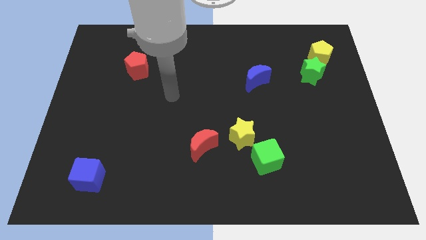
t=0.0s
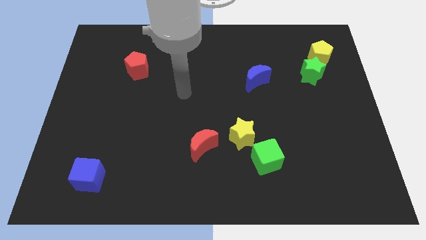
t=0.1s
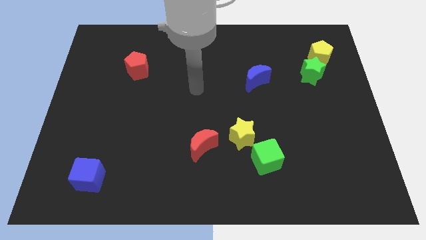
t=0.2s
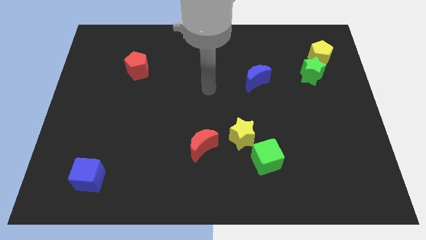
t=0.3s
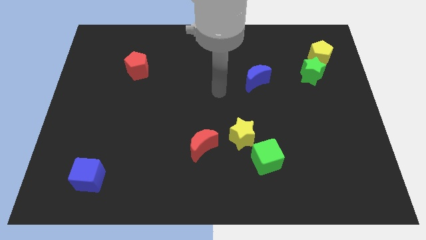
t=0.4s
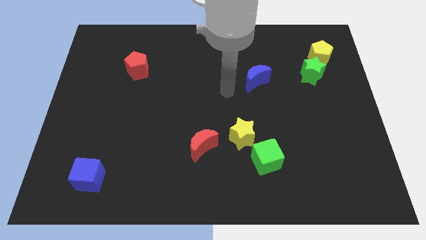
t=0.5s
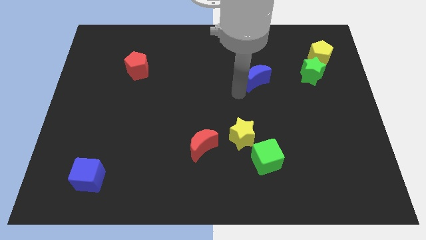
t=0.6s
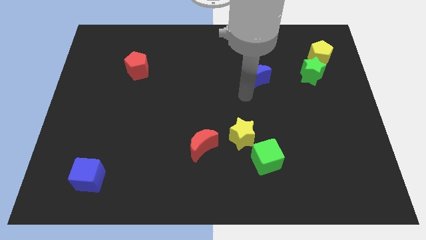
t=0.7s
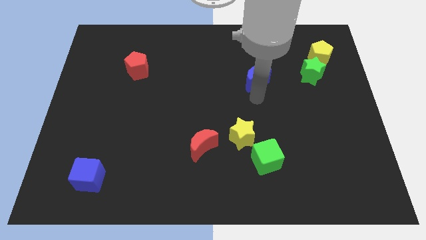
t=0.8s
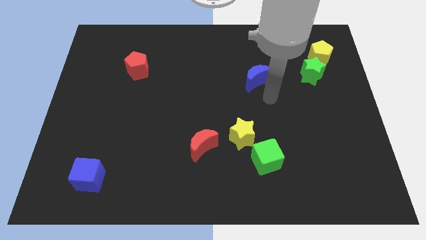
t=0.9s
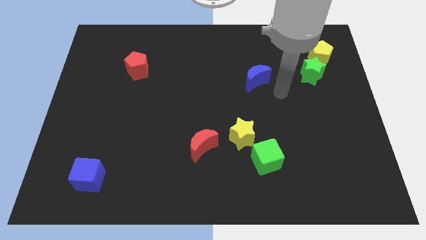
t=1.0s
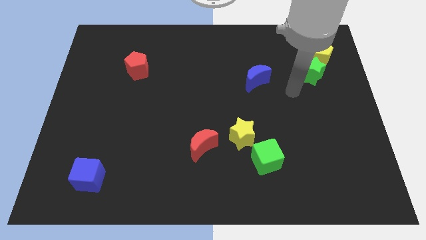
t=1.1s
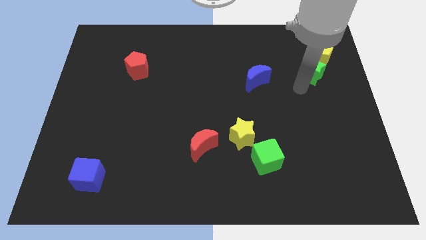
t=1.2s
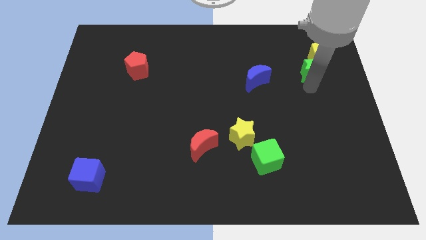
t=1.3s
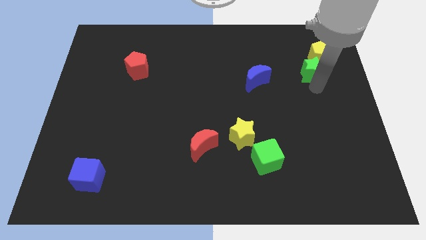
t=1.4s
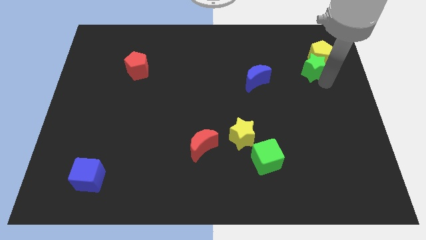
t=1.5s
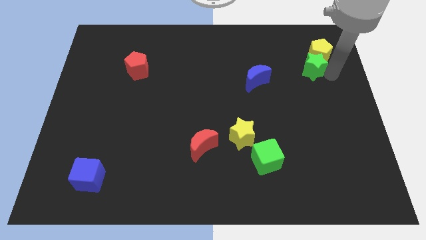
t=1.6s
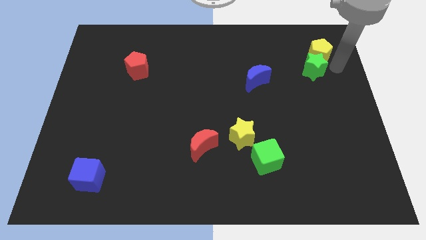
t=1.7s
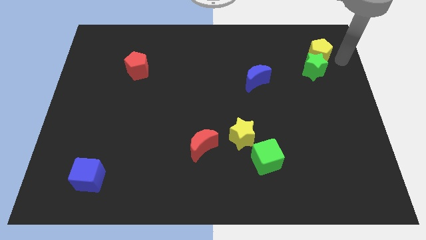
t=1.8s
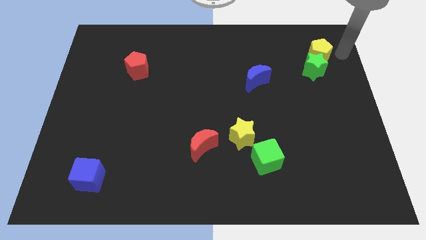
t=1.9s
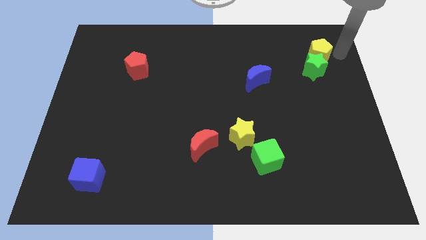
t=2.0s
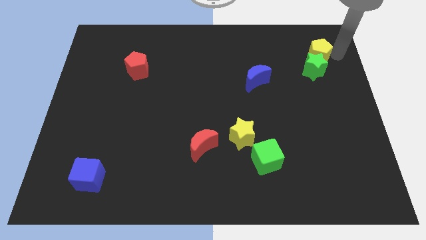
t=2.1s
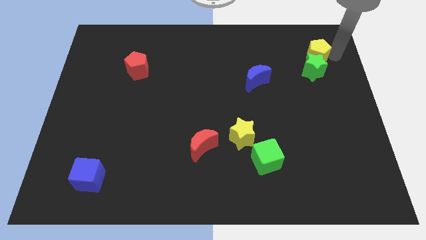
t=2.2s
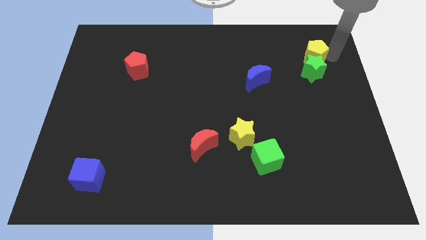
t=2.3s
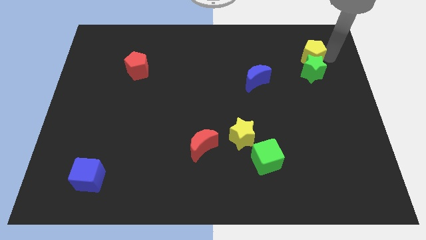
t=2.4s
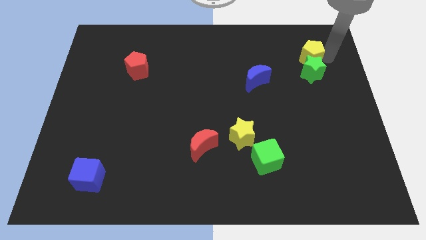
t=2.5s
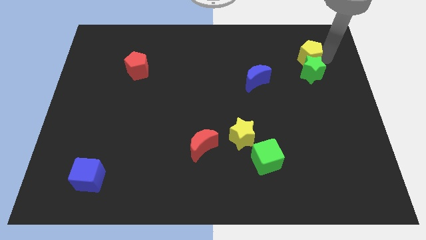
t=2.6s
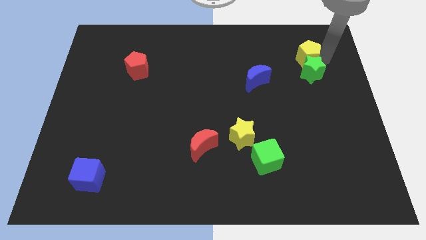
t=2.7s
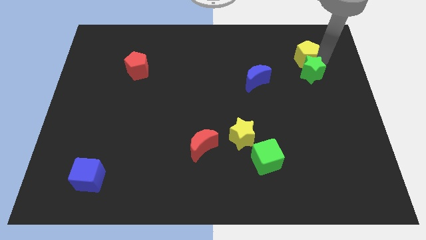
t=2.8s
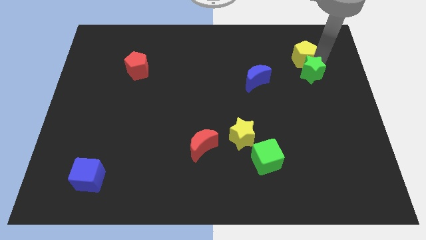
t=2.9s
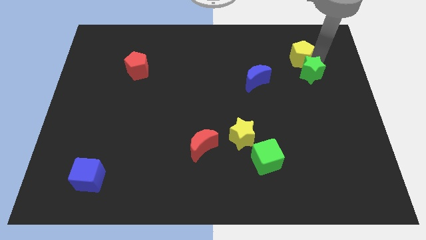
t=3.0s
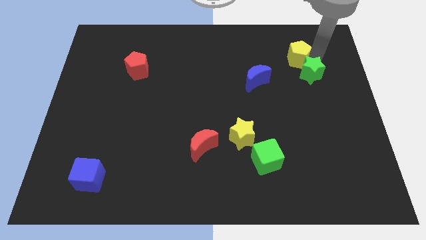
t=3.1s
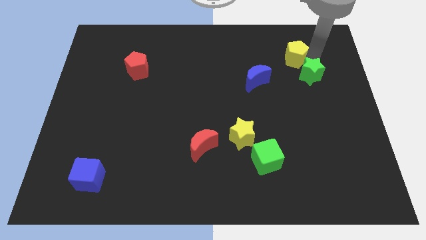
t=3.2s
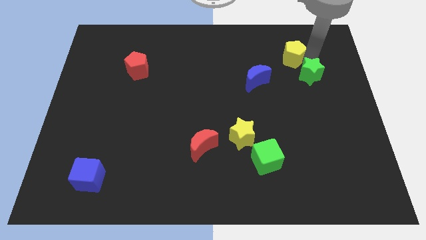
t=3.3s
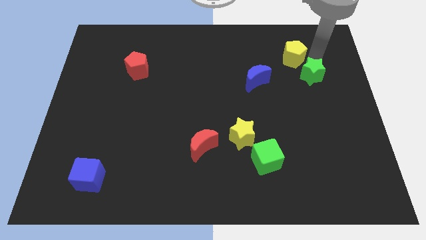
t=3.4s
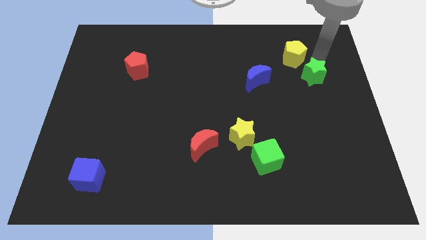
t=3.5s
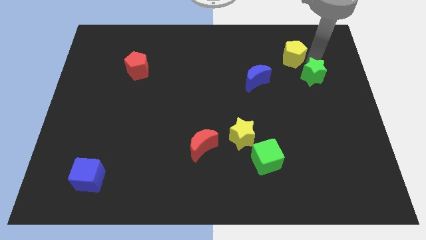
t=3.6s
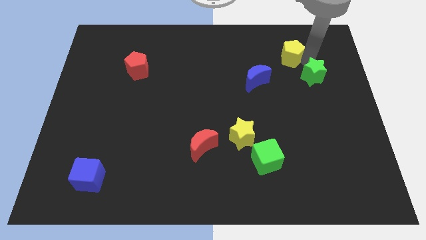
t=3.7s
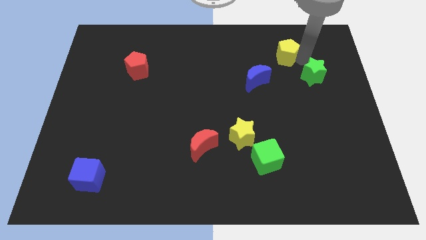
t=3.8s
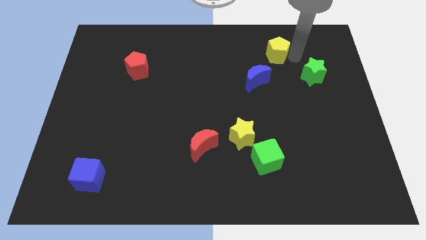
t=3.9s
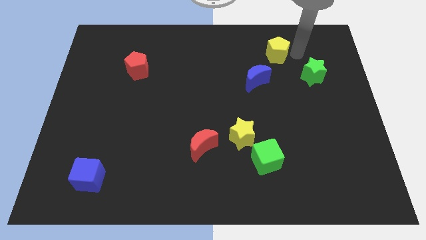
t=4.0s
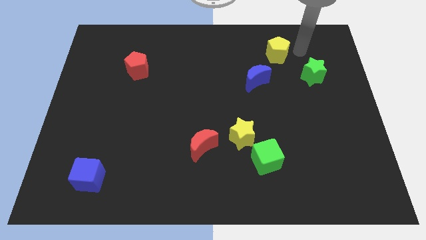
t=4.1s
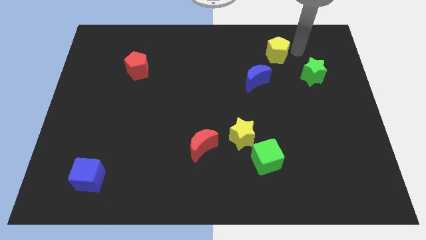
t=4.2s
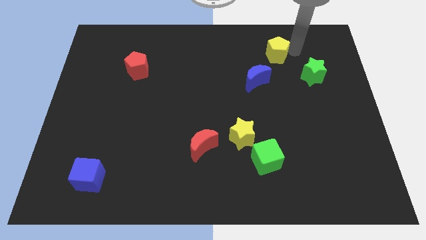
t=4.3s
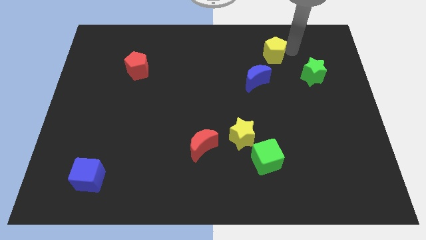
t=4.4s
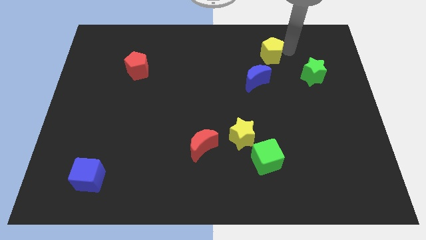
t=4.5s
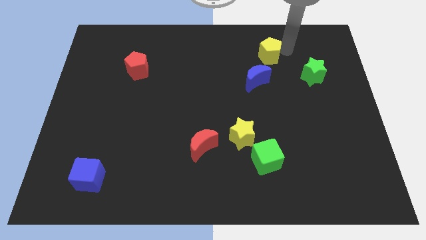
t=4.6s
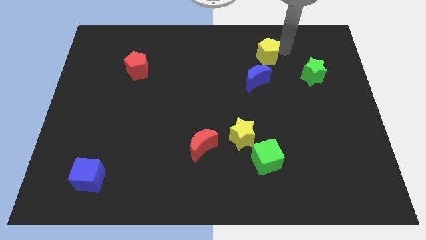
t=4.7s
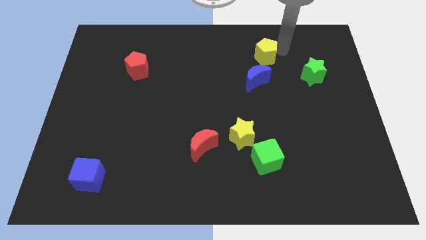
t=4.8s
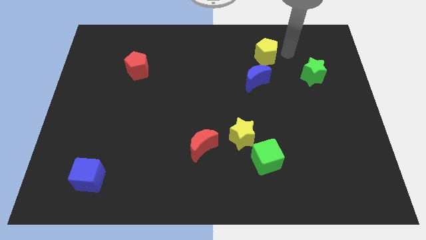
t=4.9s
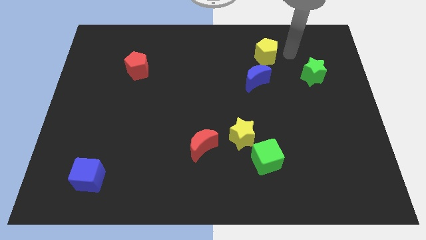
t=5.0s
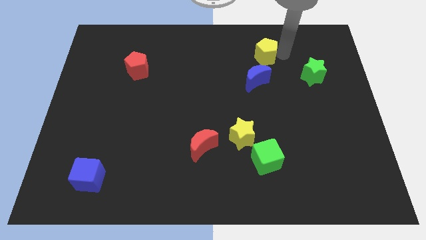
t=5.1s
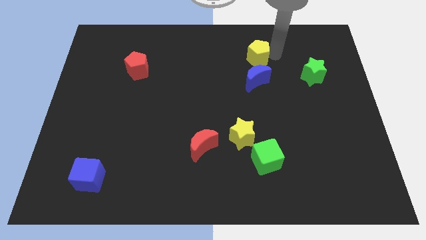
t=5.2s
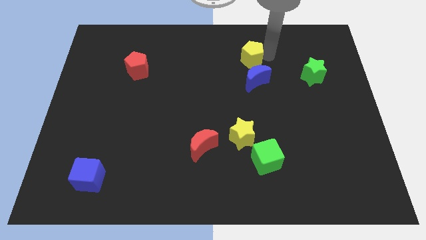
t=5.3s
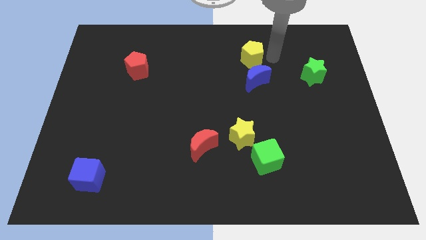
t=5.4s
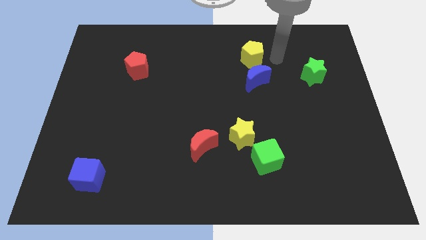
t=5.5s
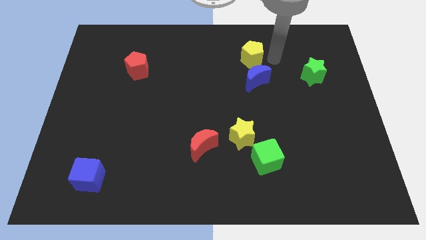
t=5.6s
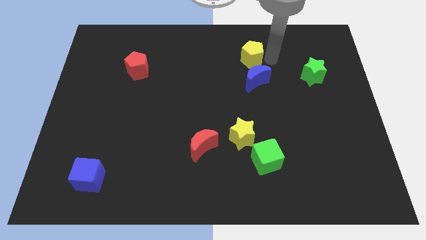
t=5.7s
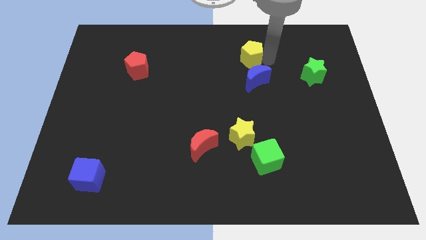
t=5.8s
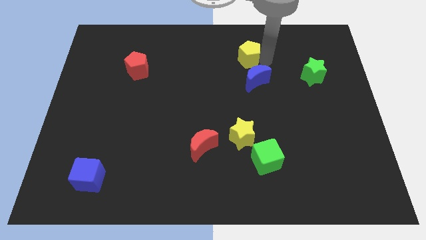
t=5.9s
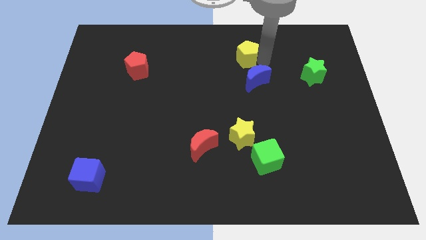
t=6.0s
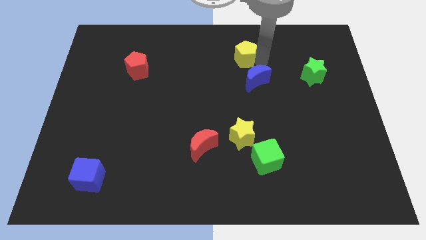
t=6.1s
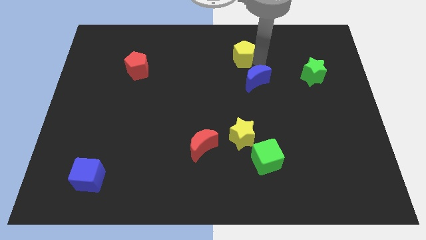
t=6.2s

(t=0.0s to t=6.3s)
move the yellow pentagon to the left

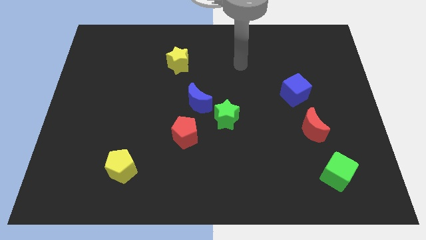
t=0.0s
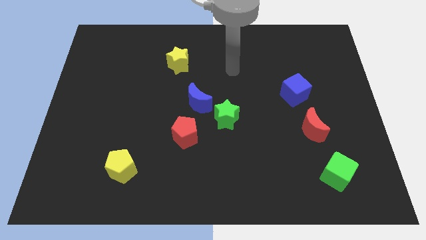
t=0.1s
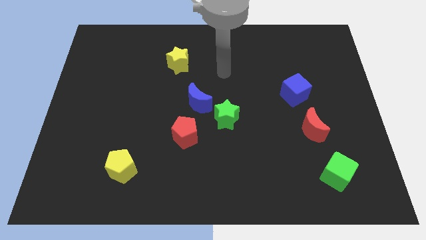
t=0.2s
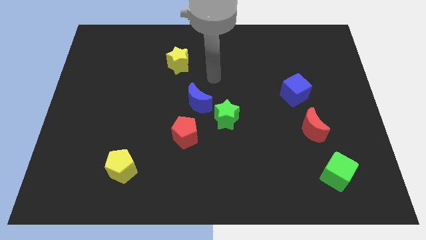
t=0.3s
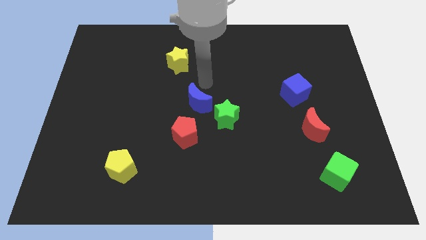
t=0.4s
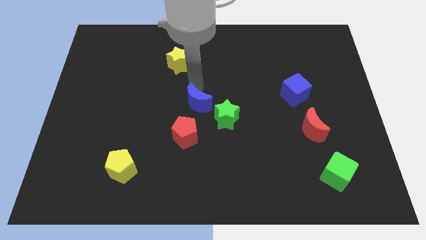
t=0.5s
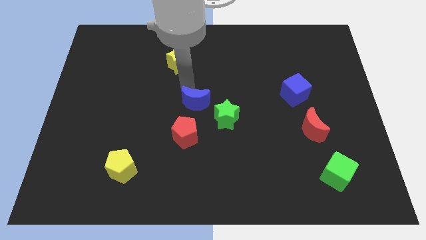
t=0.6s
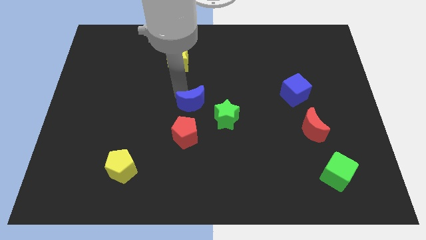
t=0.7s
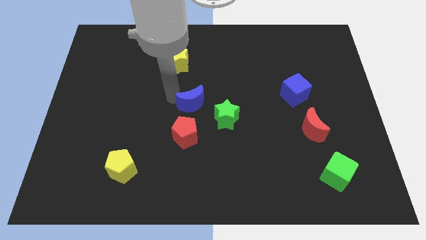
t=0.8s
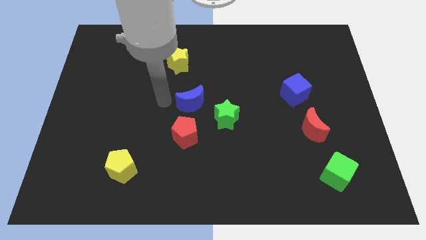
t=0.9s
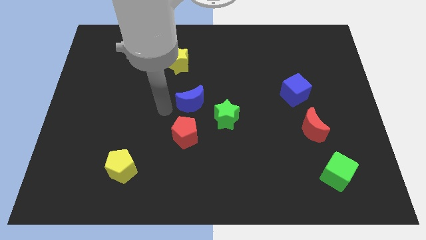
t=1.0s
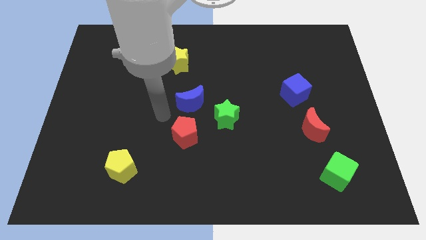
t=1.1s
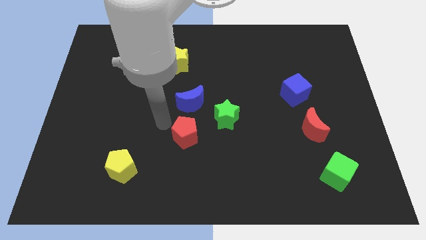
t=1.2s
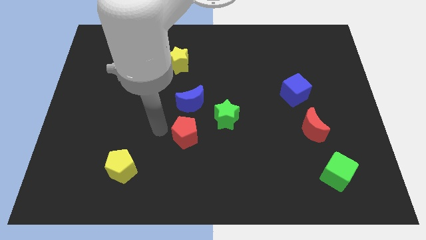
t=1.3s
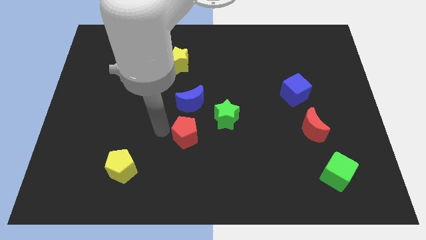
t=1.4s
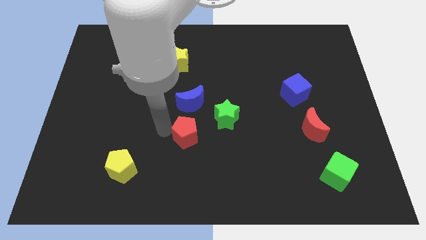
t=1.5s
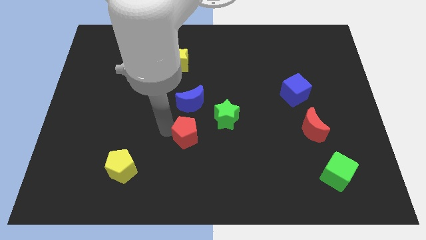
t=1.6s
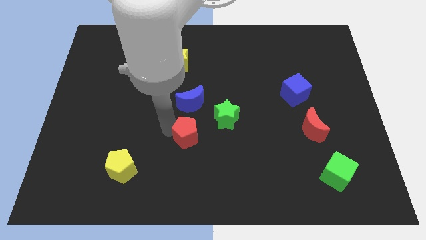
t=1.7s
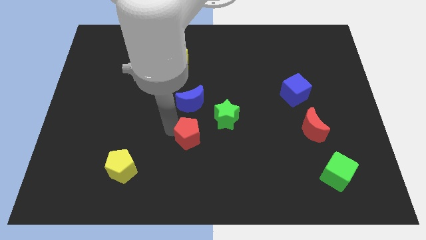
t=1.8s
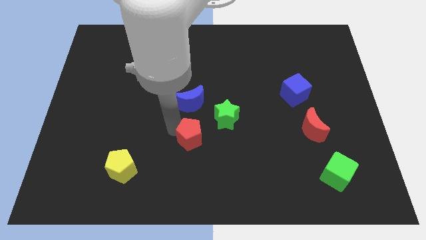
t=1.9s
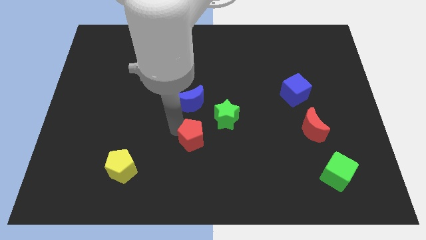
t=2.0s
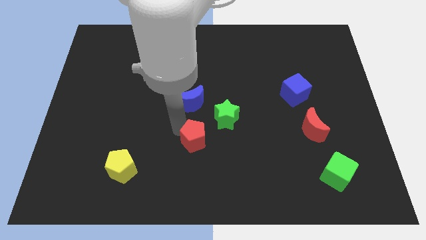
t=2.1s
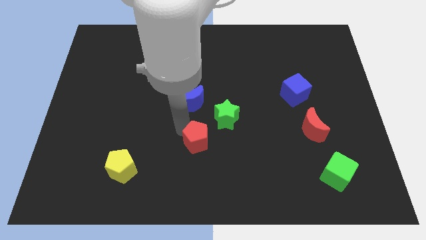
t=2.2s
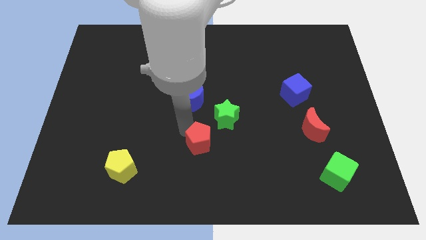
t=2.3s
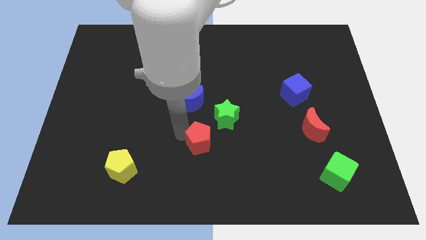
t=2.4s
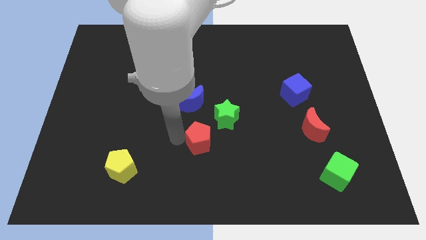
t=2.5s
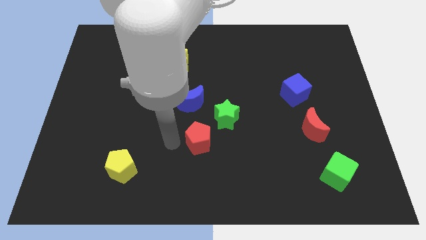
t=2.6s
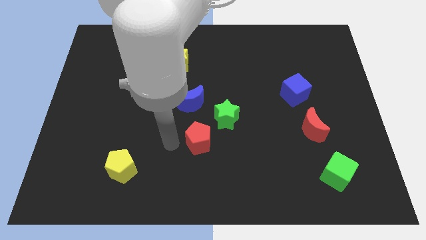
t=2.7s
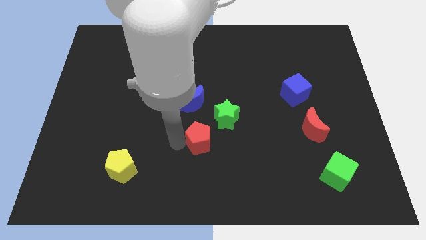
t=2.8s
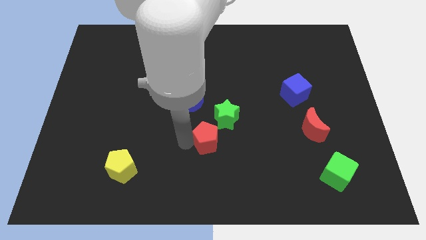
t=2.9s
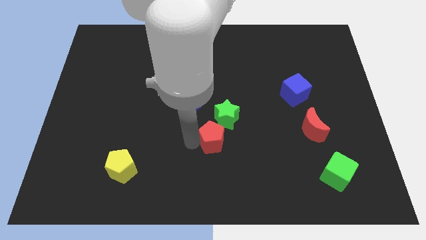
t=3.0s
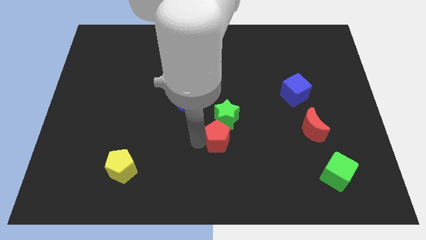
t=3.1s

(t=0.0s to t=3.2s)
move the red pentagon right a little bit
